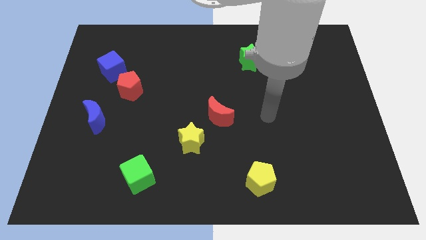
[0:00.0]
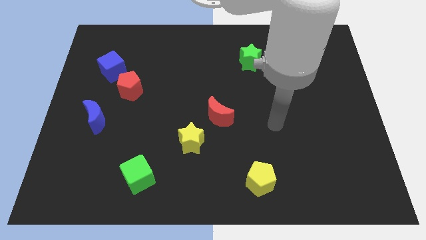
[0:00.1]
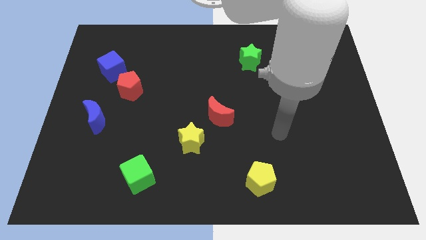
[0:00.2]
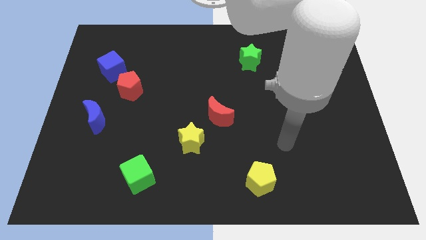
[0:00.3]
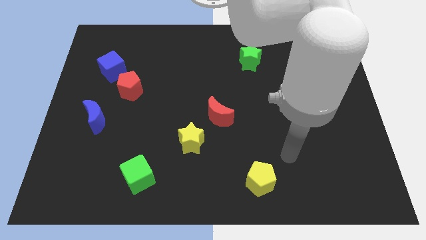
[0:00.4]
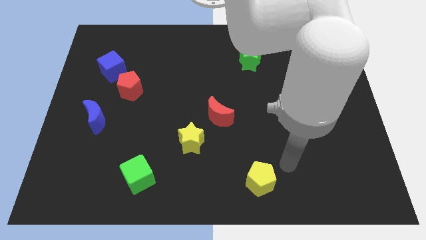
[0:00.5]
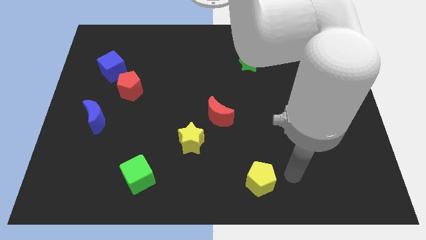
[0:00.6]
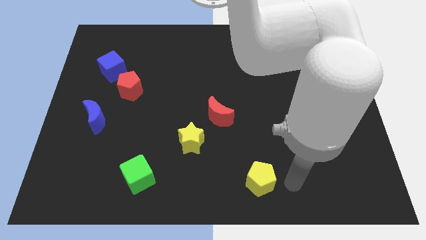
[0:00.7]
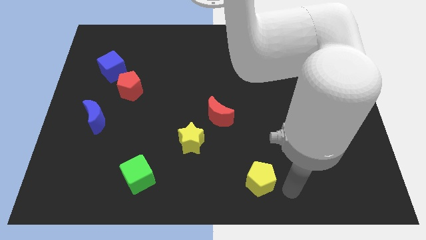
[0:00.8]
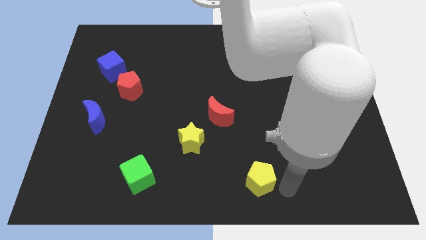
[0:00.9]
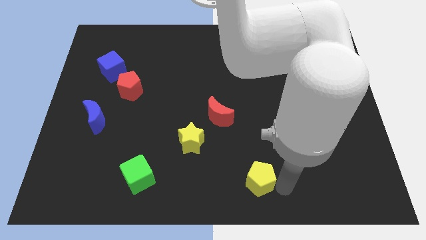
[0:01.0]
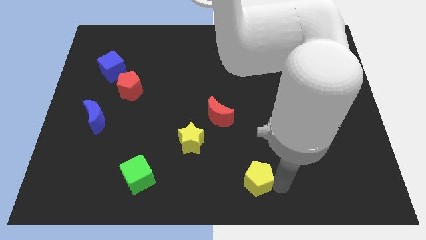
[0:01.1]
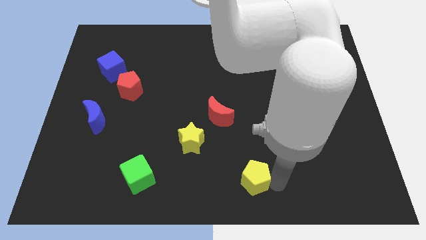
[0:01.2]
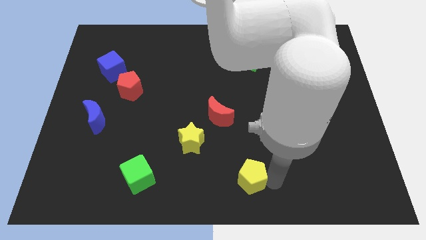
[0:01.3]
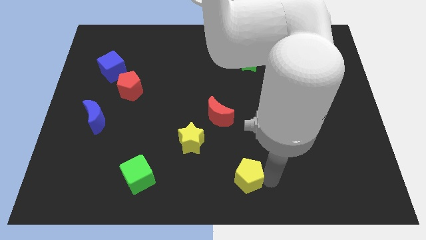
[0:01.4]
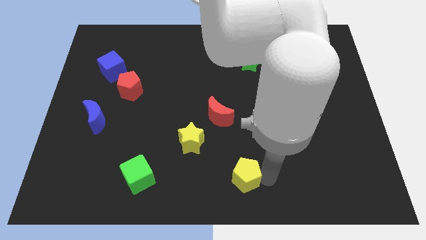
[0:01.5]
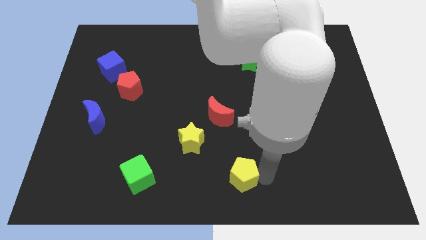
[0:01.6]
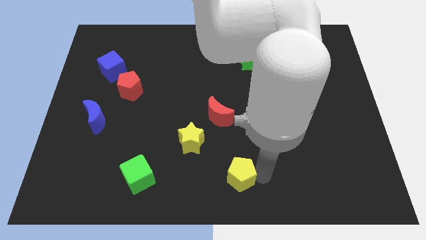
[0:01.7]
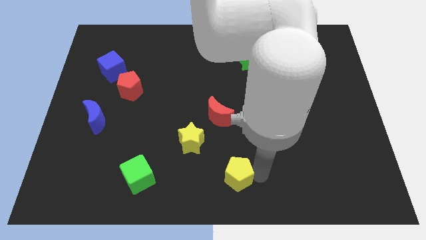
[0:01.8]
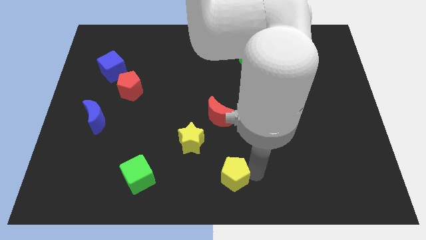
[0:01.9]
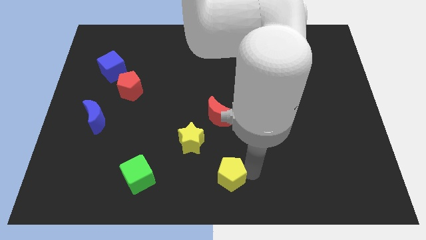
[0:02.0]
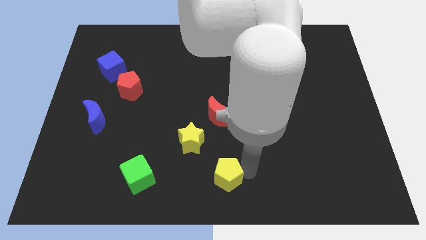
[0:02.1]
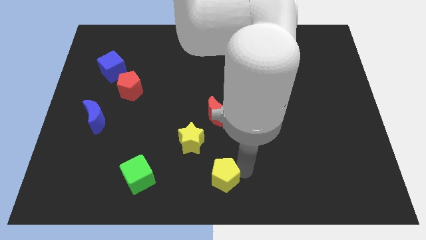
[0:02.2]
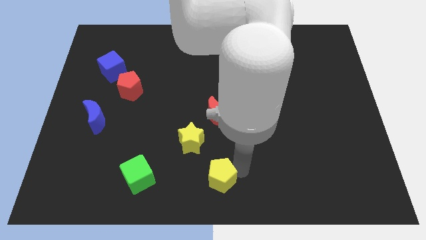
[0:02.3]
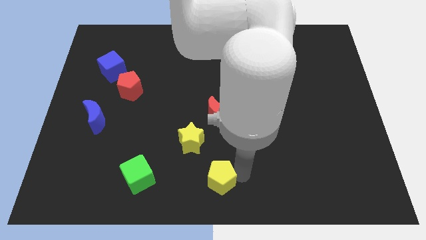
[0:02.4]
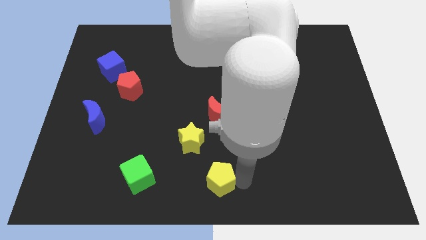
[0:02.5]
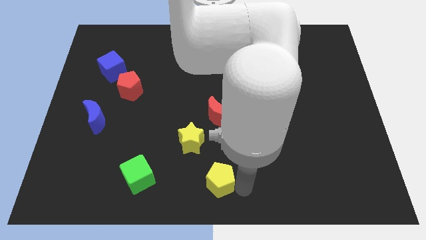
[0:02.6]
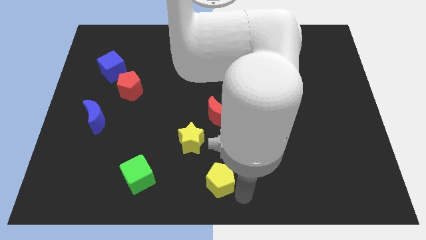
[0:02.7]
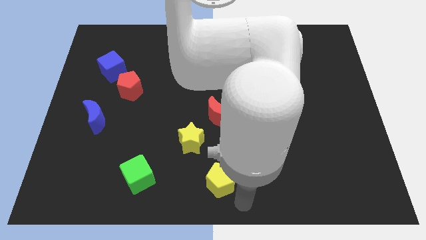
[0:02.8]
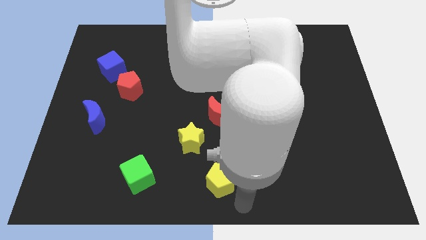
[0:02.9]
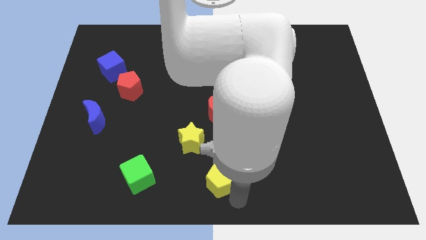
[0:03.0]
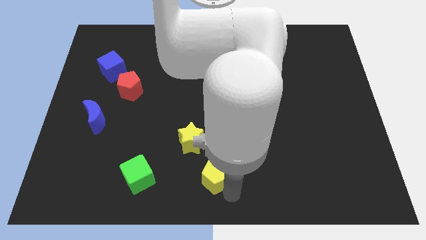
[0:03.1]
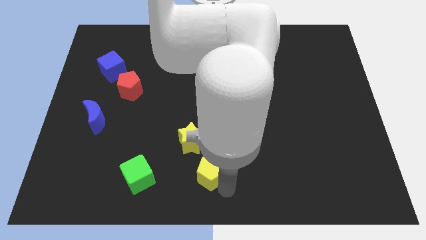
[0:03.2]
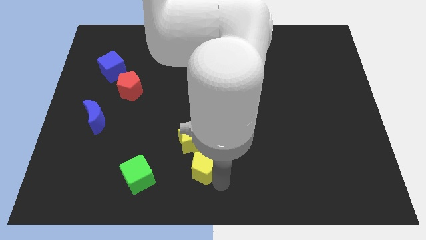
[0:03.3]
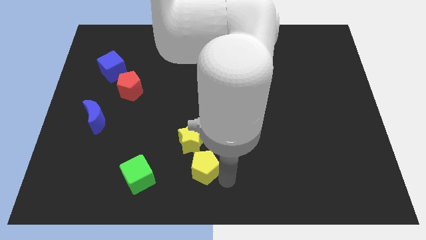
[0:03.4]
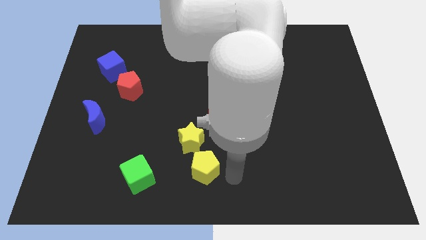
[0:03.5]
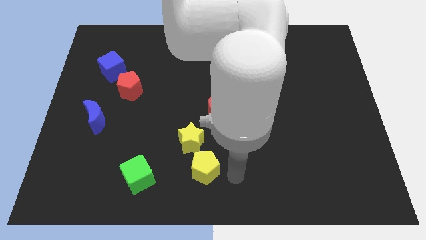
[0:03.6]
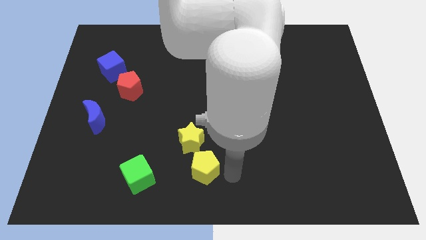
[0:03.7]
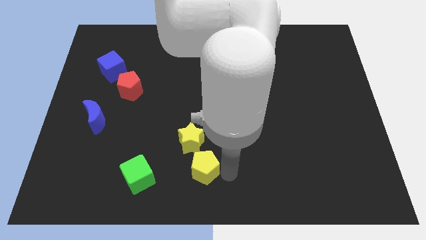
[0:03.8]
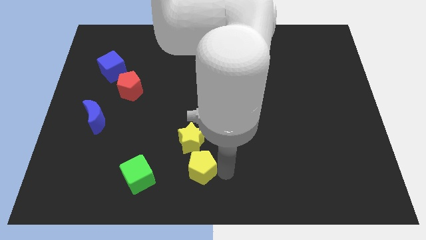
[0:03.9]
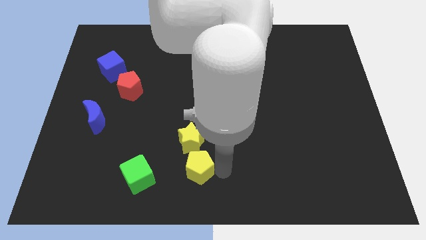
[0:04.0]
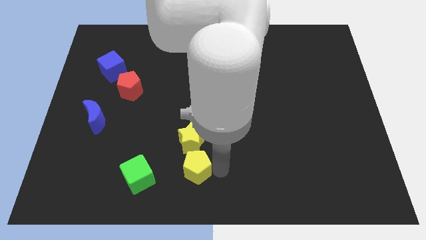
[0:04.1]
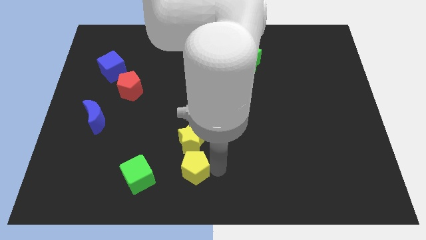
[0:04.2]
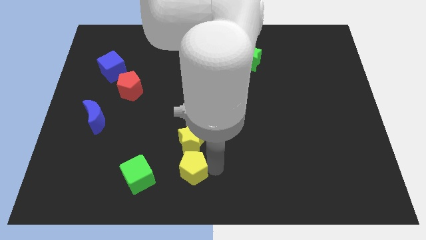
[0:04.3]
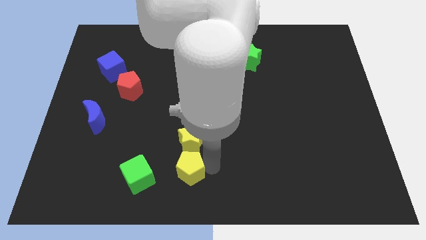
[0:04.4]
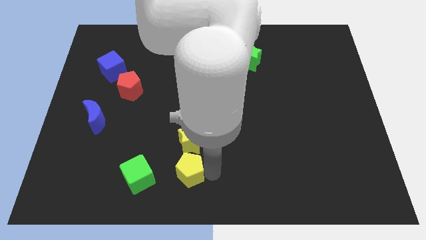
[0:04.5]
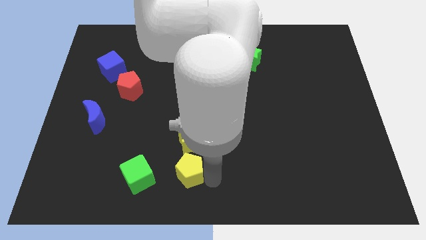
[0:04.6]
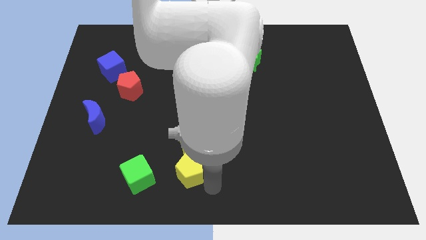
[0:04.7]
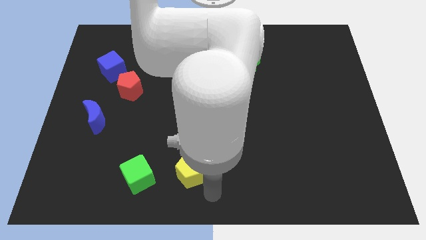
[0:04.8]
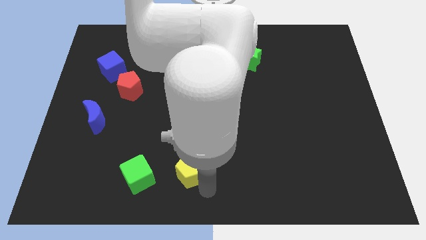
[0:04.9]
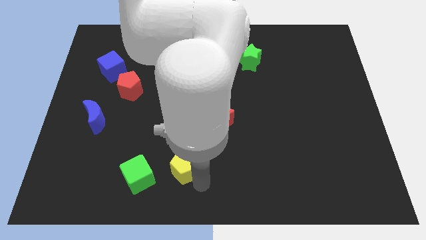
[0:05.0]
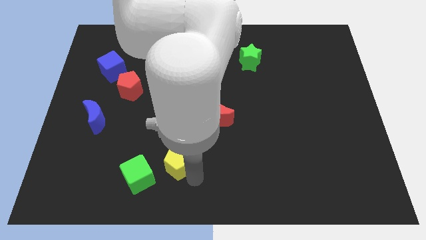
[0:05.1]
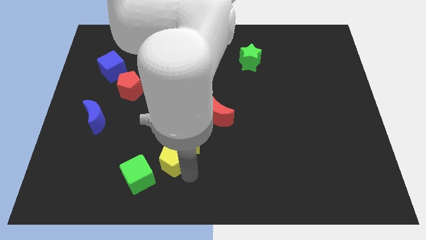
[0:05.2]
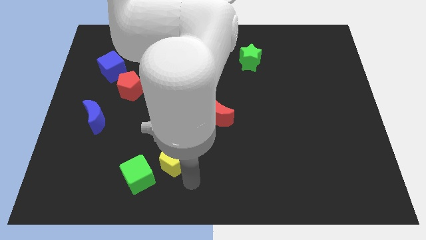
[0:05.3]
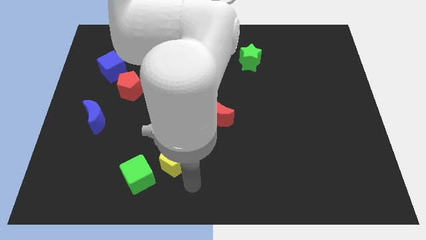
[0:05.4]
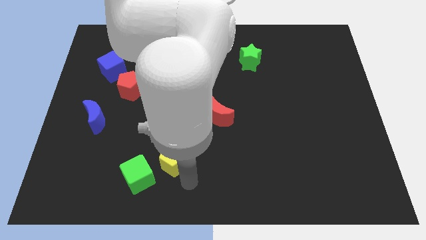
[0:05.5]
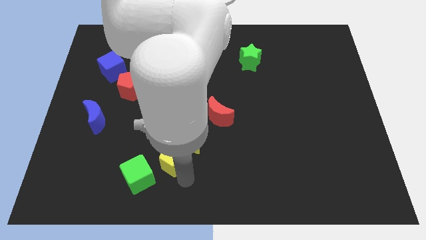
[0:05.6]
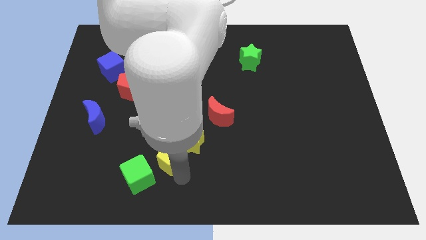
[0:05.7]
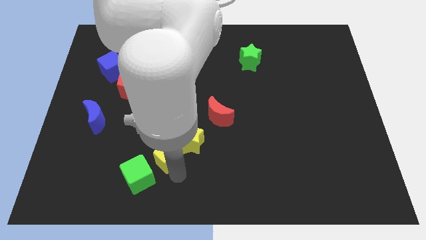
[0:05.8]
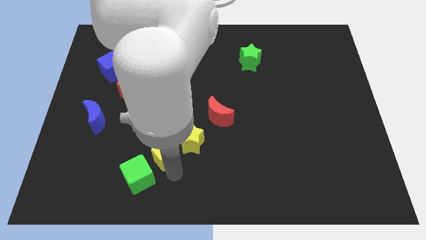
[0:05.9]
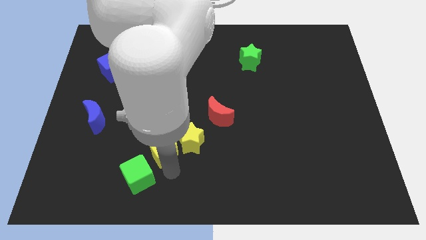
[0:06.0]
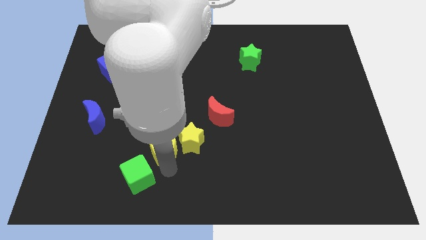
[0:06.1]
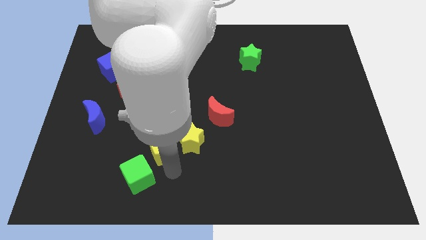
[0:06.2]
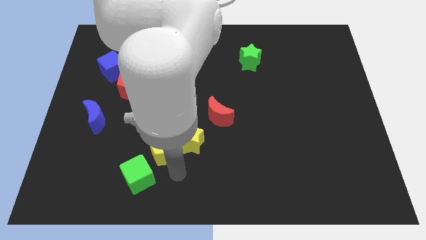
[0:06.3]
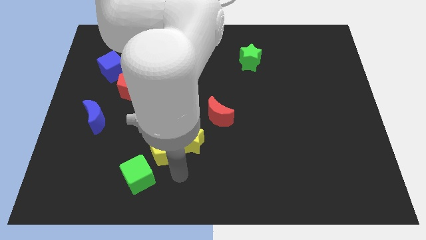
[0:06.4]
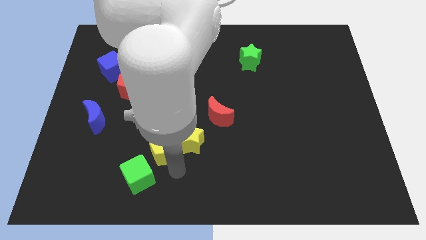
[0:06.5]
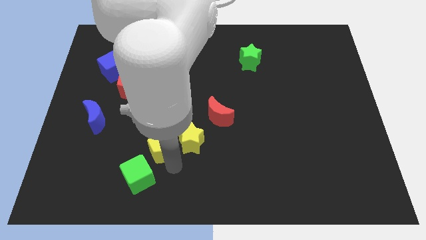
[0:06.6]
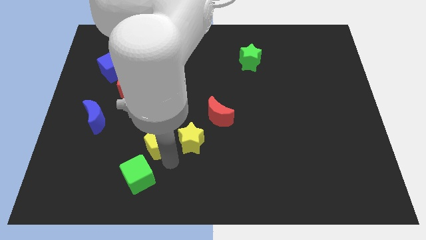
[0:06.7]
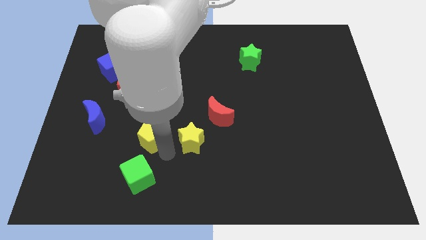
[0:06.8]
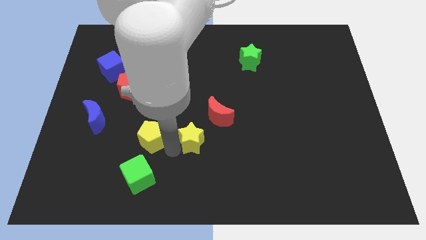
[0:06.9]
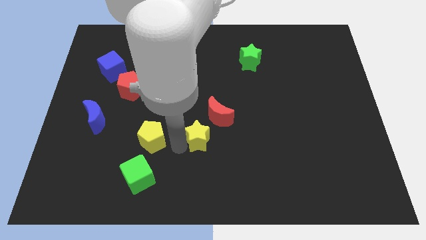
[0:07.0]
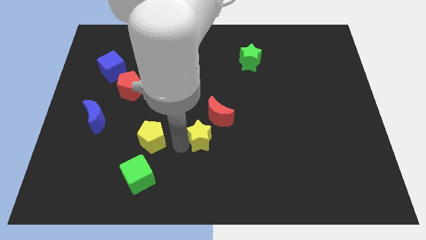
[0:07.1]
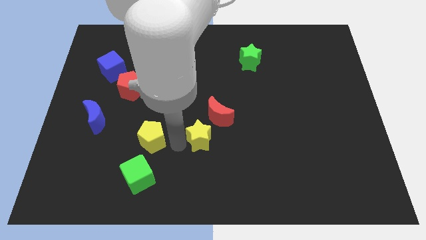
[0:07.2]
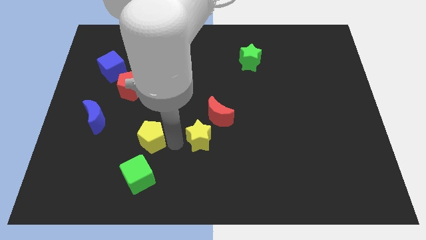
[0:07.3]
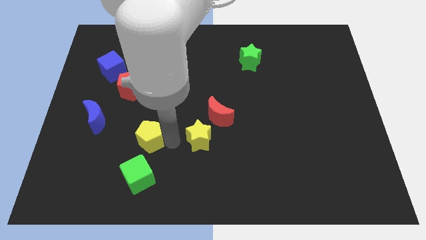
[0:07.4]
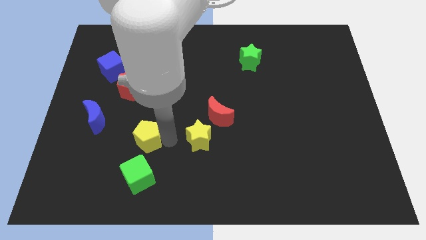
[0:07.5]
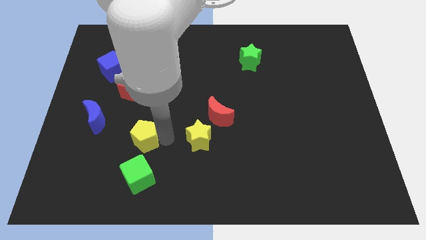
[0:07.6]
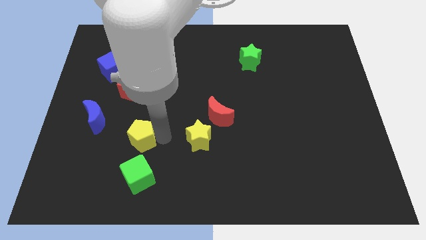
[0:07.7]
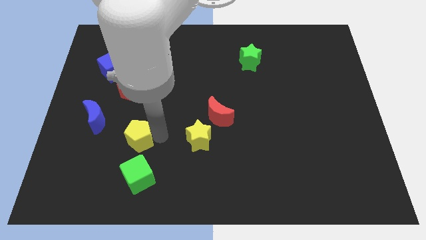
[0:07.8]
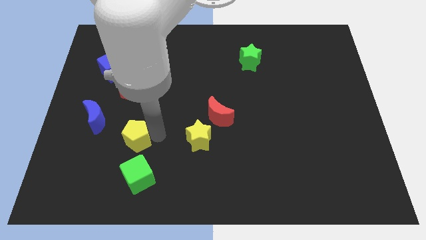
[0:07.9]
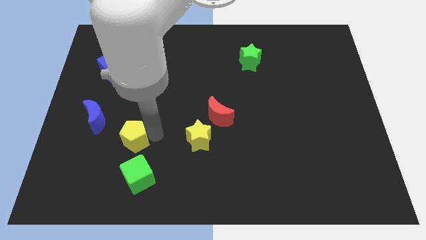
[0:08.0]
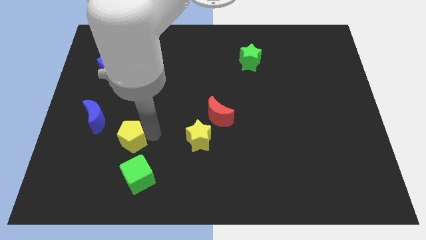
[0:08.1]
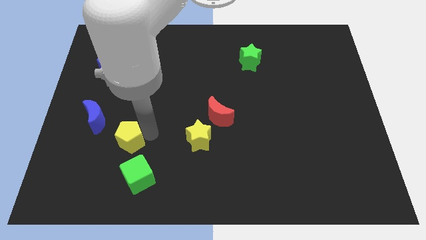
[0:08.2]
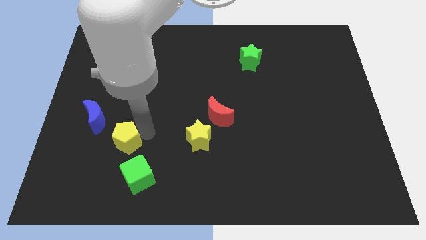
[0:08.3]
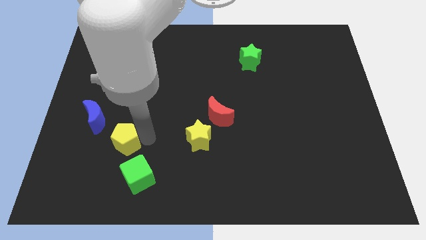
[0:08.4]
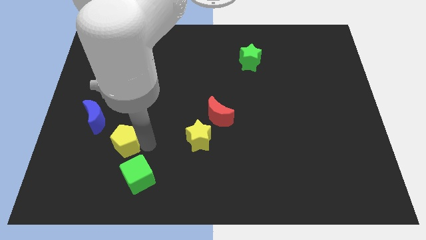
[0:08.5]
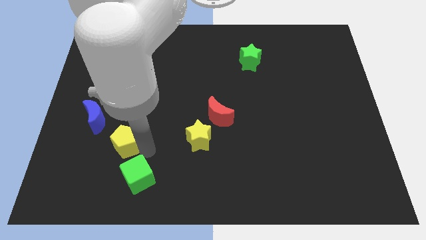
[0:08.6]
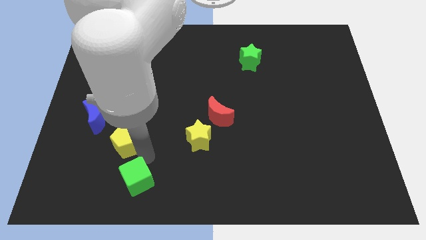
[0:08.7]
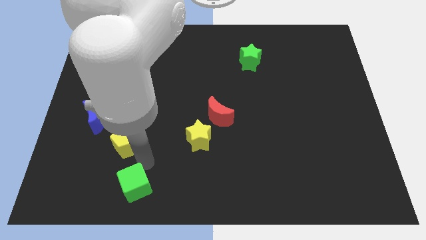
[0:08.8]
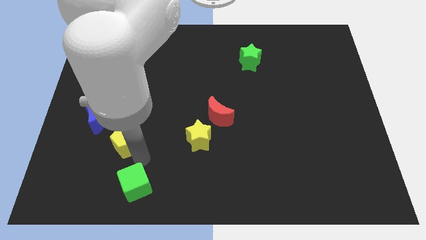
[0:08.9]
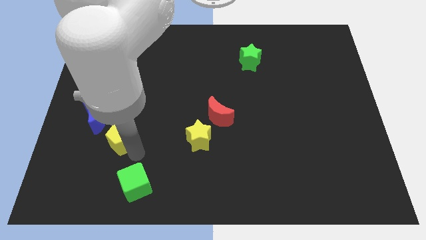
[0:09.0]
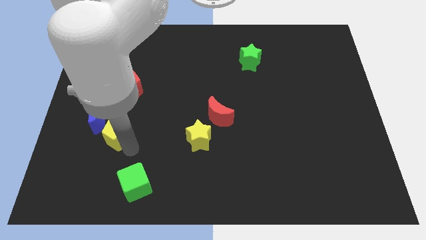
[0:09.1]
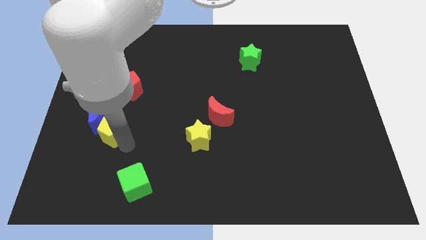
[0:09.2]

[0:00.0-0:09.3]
put the yellow pentagon to the blue moon
